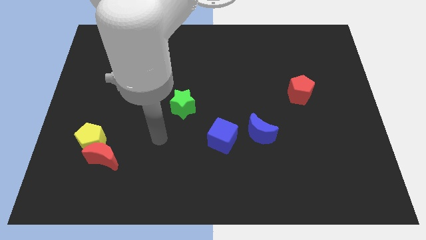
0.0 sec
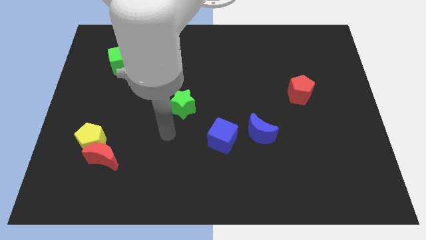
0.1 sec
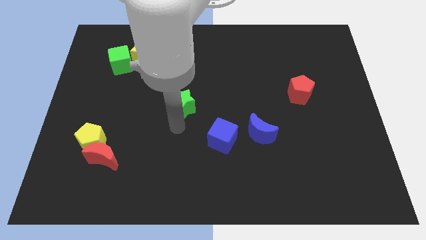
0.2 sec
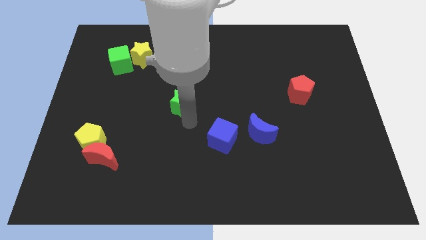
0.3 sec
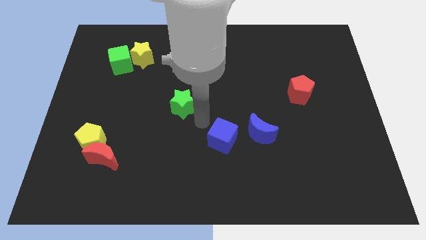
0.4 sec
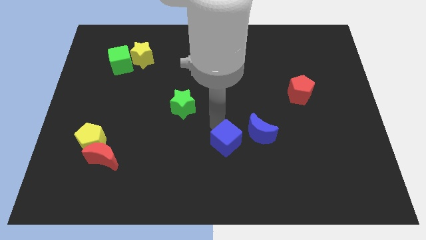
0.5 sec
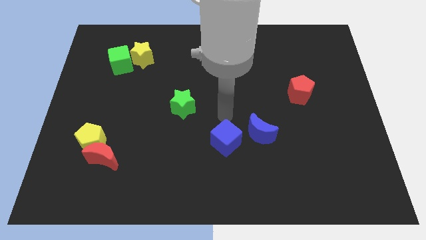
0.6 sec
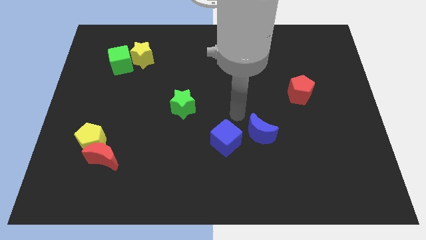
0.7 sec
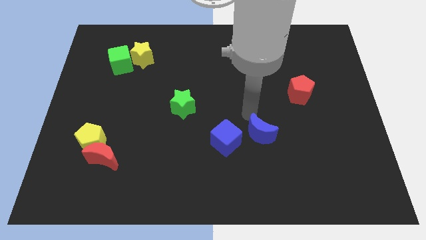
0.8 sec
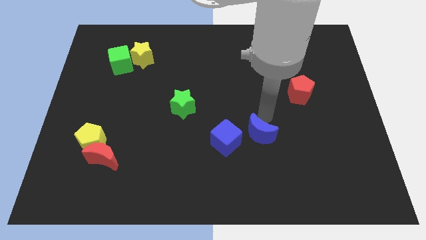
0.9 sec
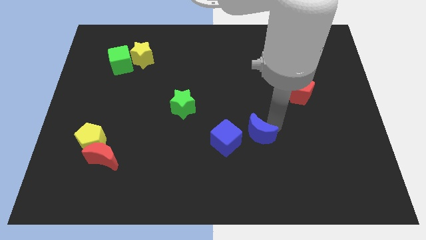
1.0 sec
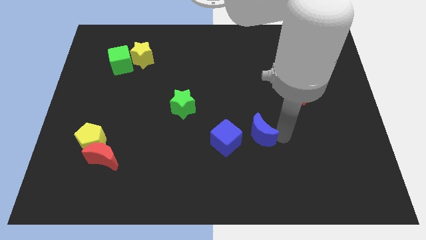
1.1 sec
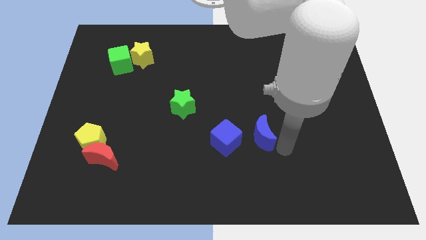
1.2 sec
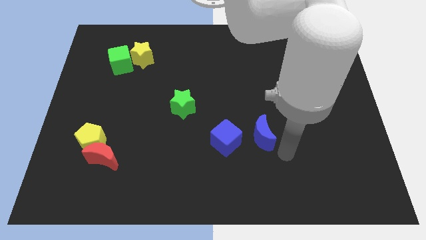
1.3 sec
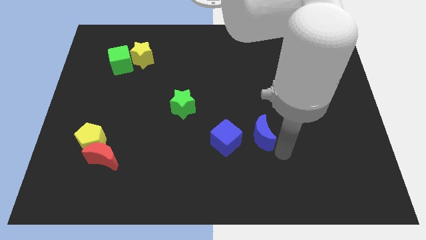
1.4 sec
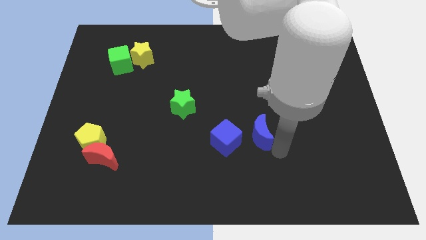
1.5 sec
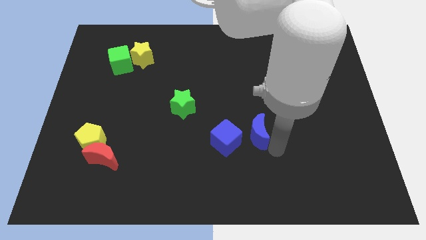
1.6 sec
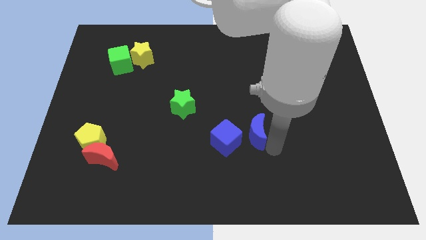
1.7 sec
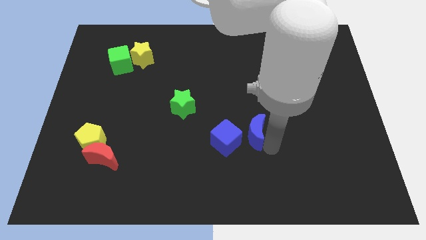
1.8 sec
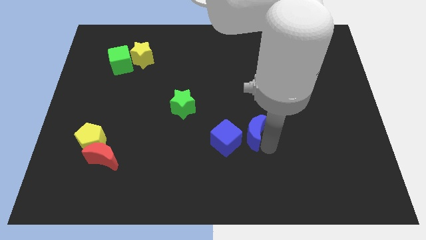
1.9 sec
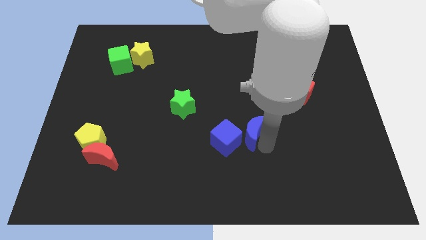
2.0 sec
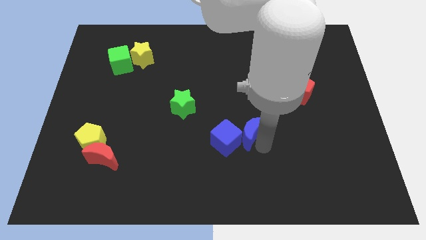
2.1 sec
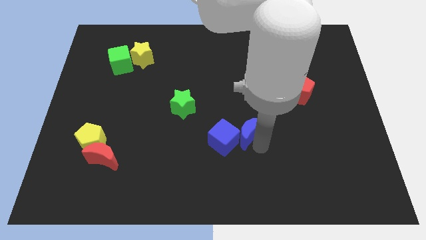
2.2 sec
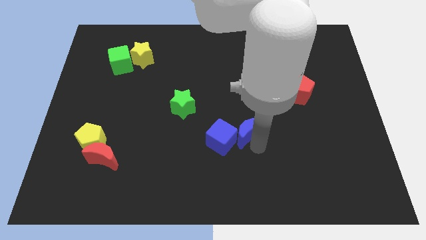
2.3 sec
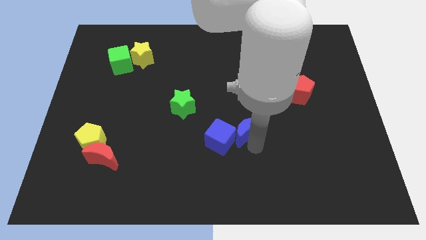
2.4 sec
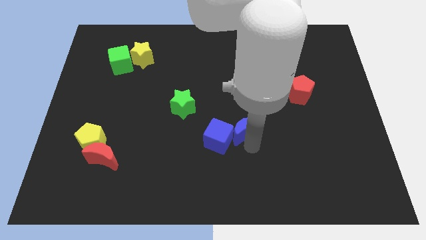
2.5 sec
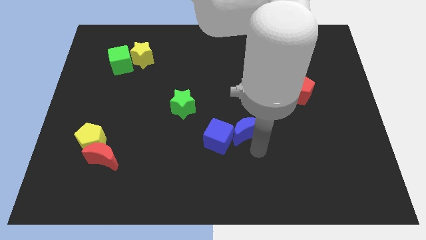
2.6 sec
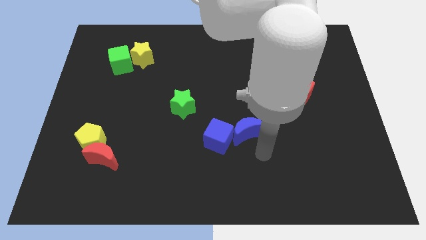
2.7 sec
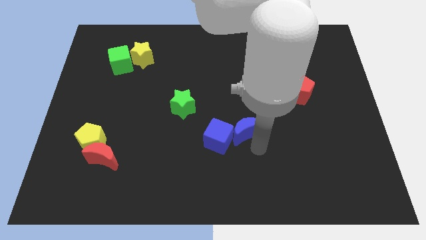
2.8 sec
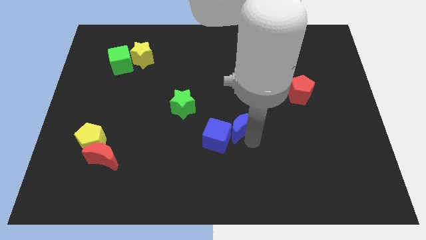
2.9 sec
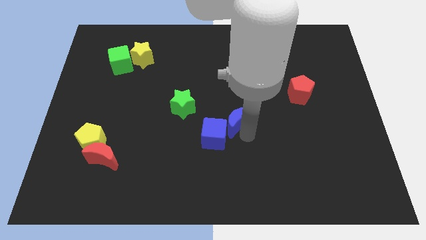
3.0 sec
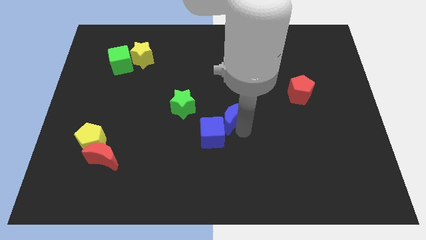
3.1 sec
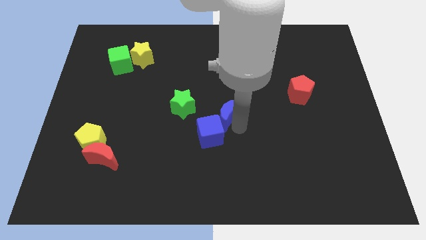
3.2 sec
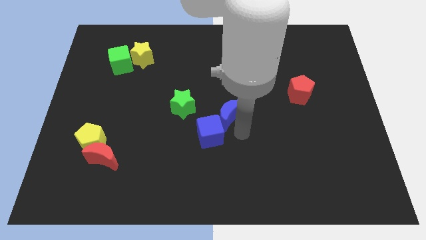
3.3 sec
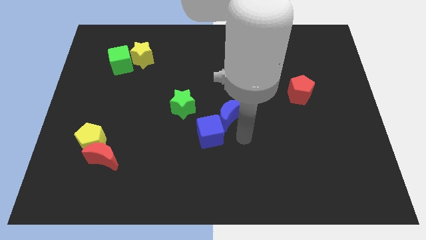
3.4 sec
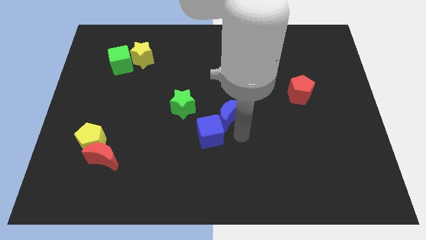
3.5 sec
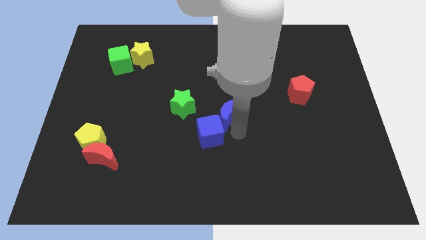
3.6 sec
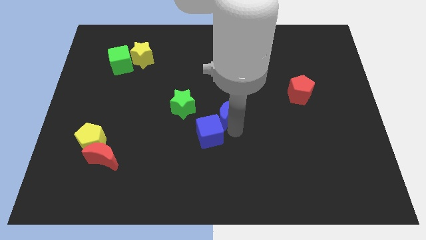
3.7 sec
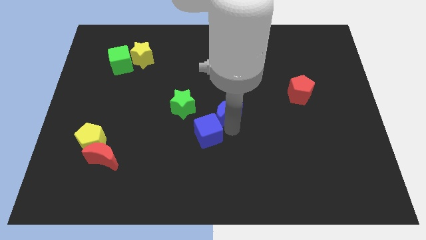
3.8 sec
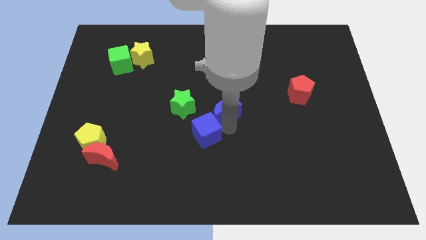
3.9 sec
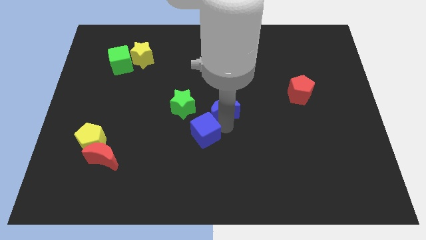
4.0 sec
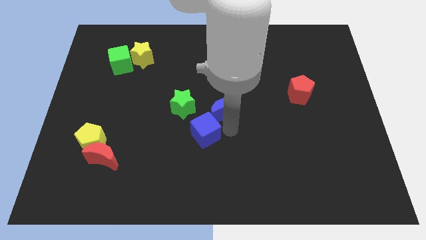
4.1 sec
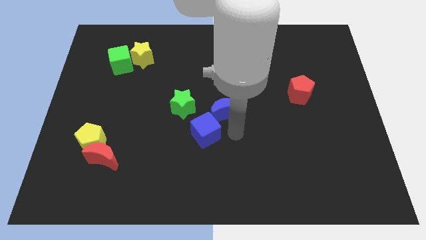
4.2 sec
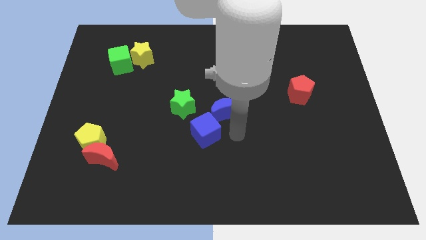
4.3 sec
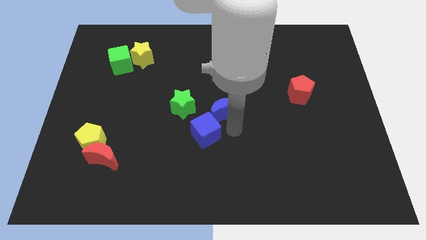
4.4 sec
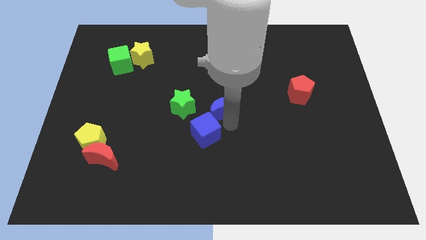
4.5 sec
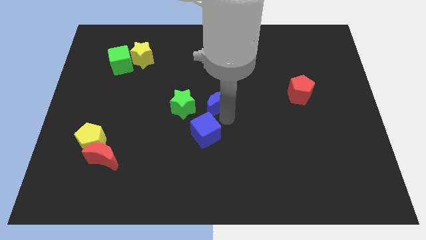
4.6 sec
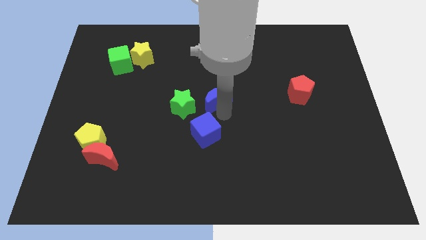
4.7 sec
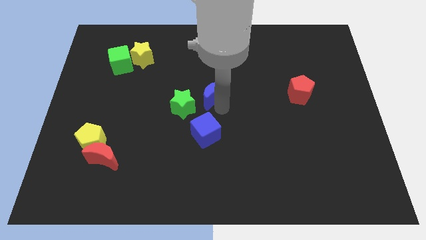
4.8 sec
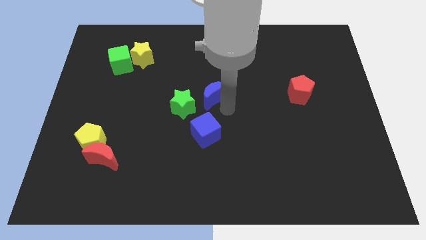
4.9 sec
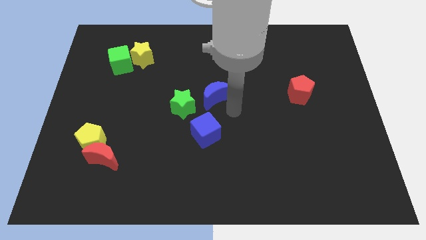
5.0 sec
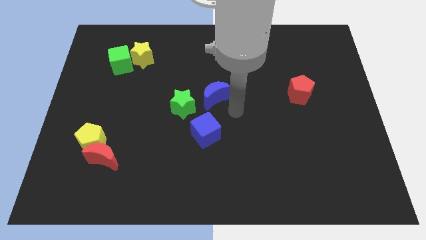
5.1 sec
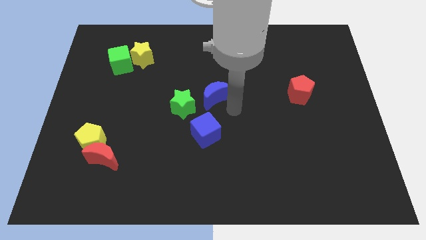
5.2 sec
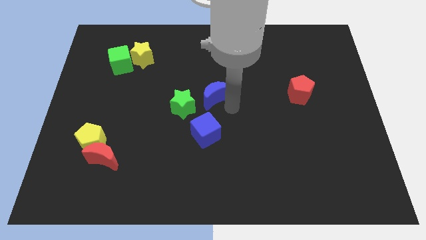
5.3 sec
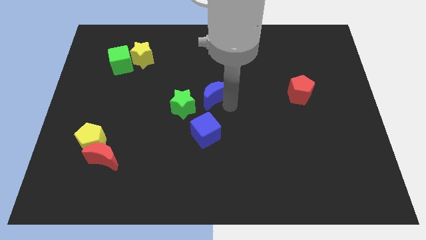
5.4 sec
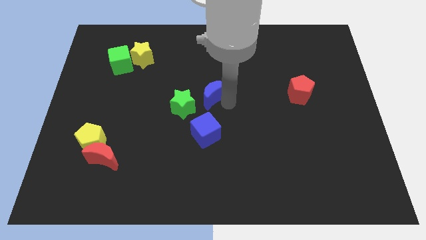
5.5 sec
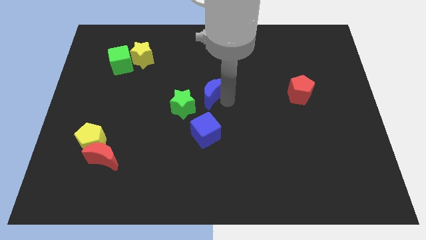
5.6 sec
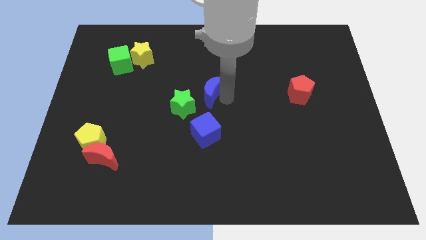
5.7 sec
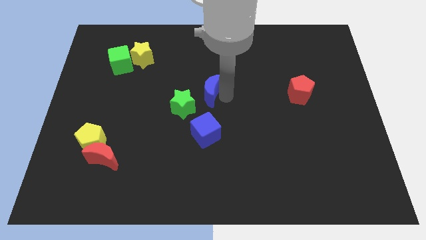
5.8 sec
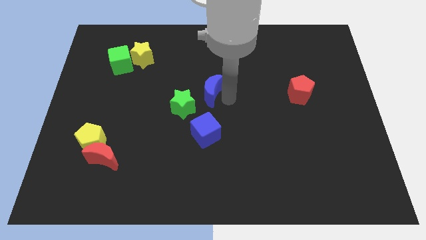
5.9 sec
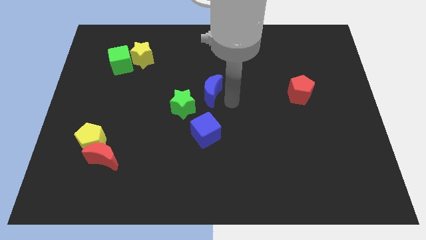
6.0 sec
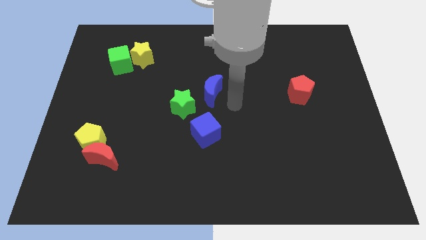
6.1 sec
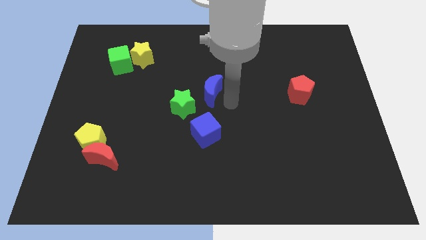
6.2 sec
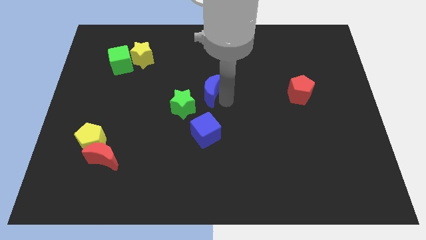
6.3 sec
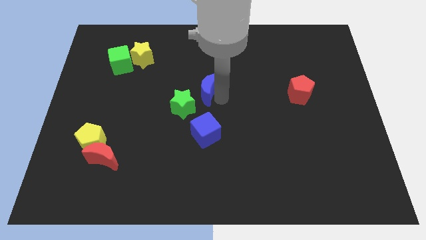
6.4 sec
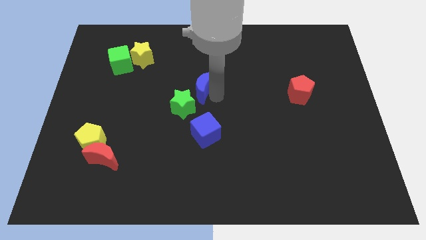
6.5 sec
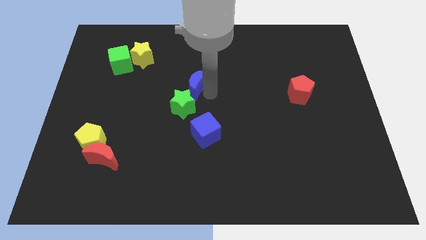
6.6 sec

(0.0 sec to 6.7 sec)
slide the blue moon upwards and then to the left

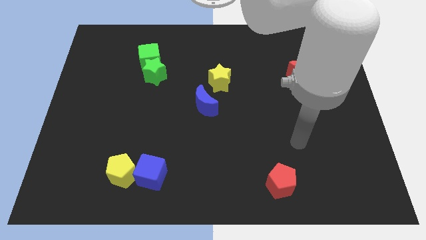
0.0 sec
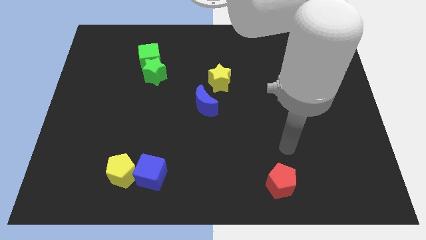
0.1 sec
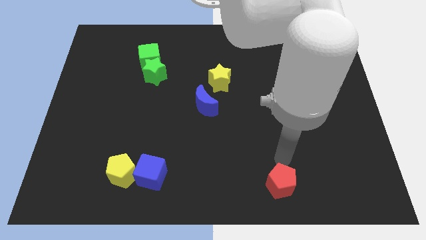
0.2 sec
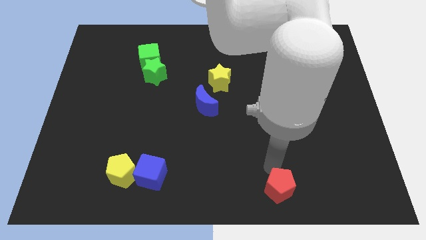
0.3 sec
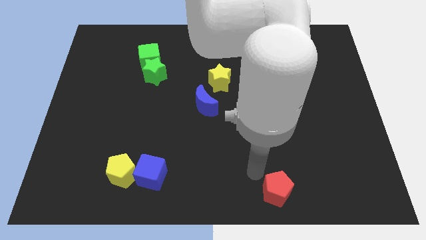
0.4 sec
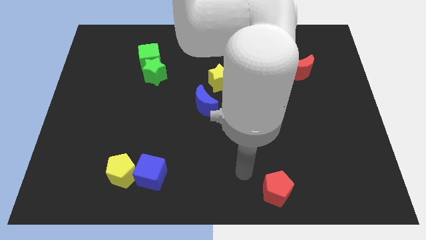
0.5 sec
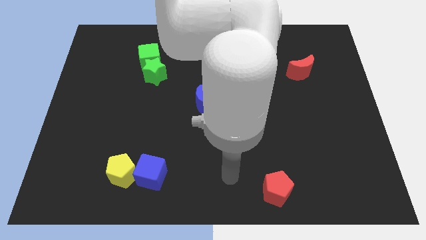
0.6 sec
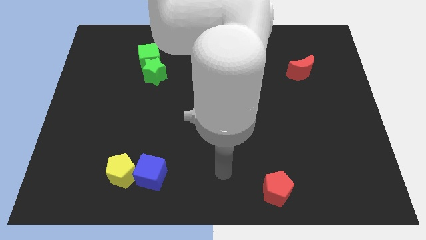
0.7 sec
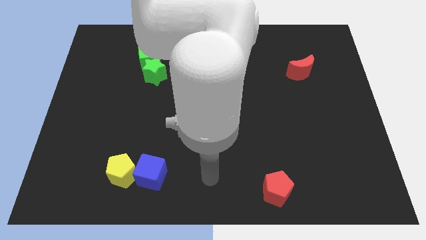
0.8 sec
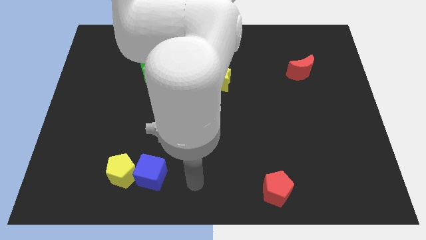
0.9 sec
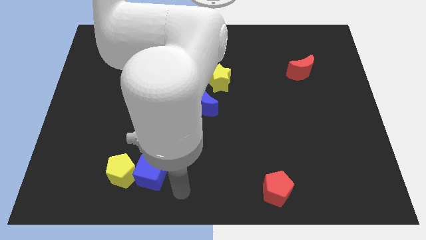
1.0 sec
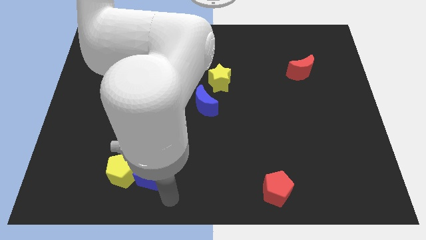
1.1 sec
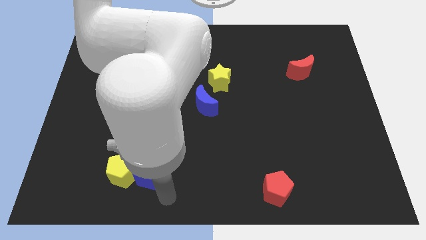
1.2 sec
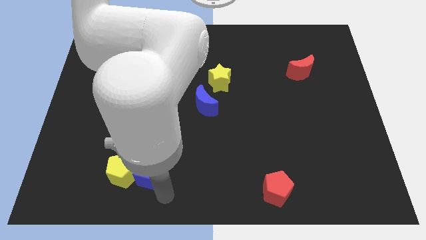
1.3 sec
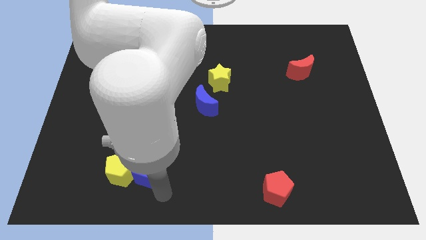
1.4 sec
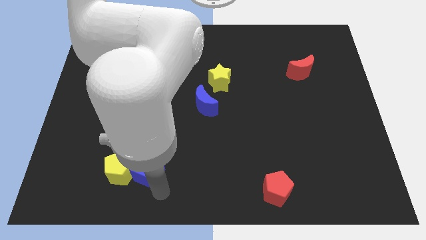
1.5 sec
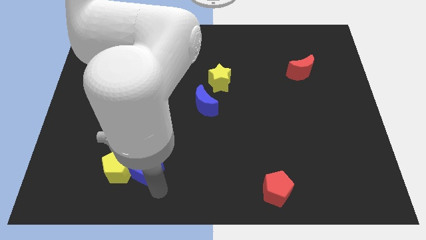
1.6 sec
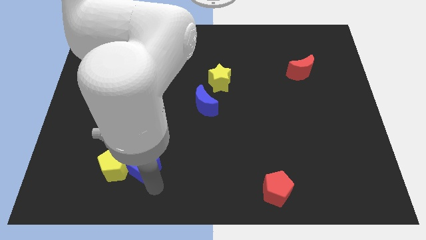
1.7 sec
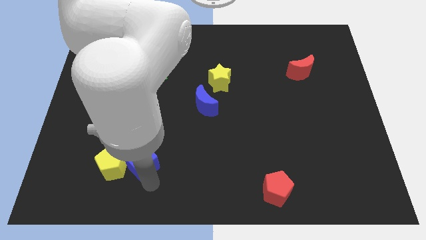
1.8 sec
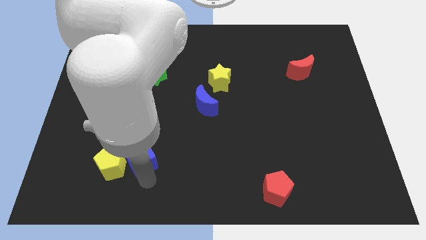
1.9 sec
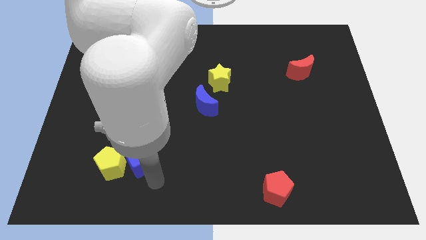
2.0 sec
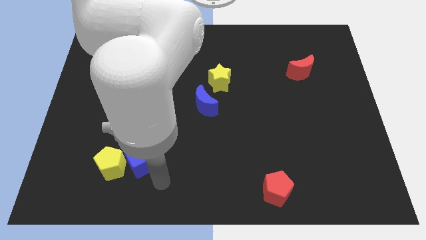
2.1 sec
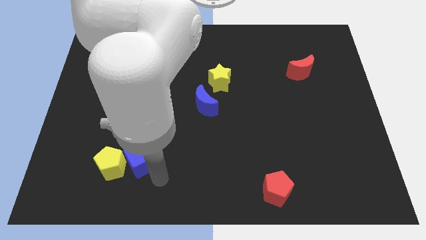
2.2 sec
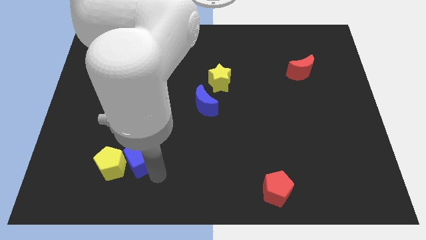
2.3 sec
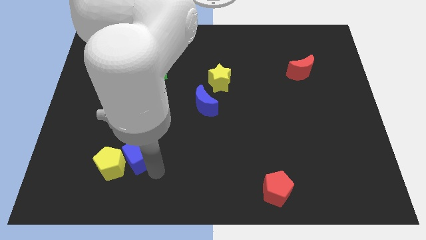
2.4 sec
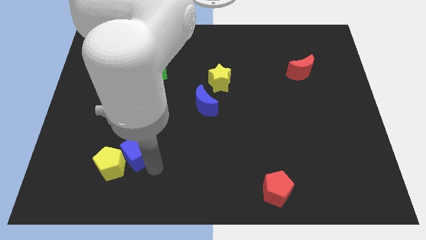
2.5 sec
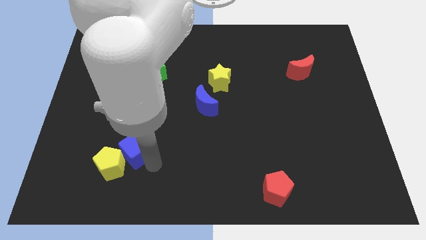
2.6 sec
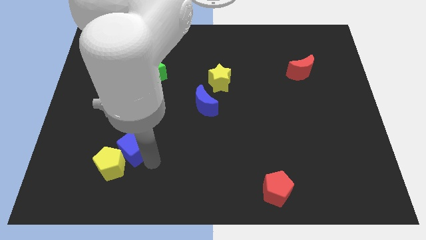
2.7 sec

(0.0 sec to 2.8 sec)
push the blue cube diagonally up and left a little bit
